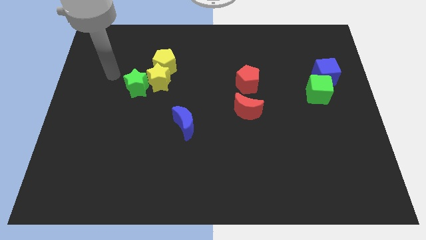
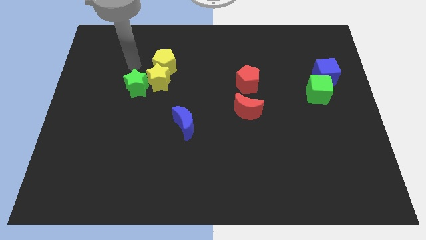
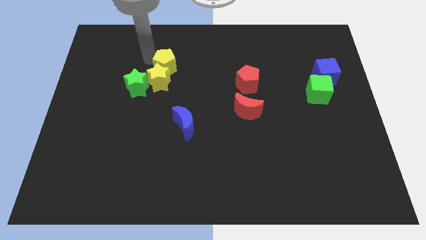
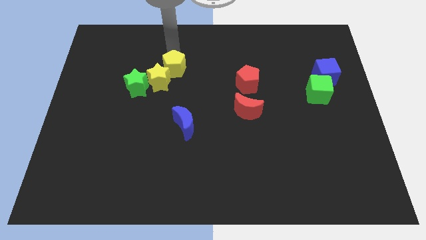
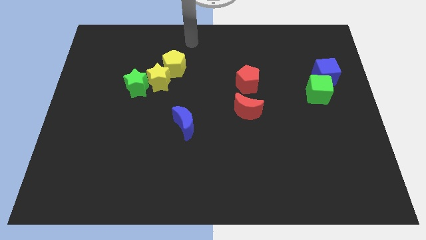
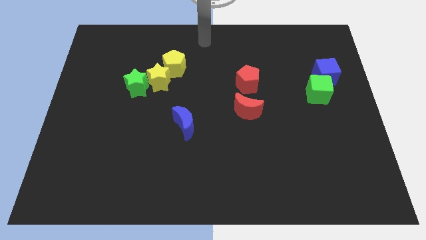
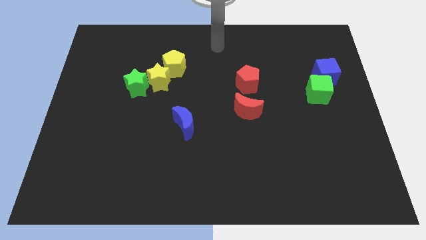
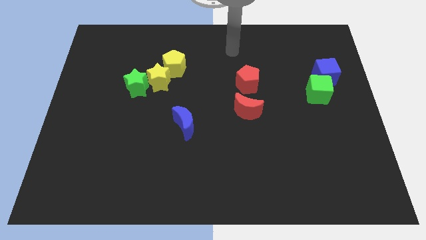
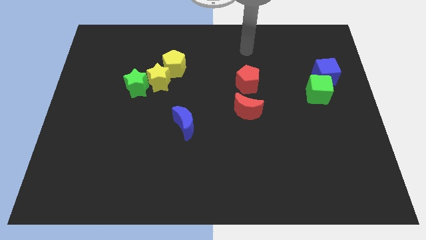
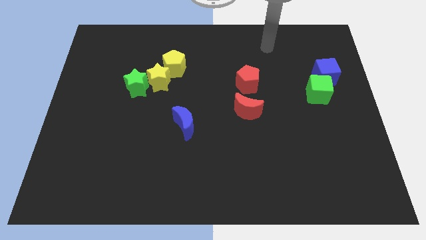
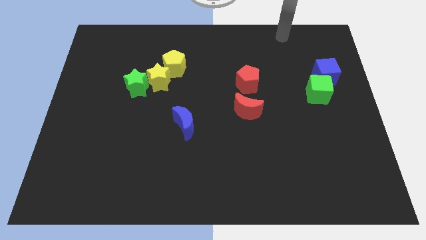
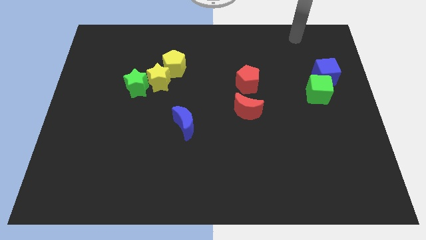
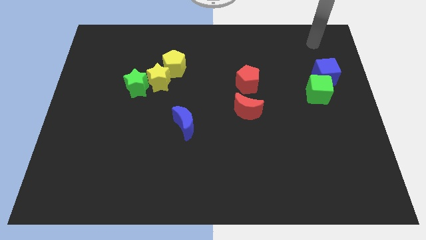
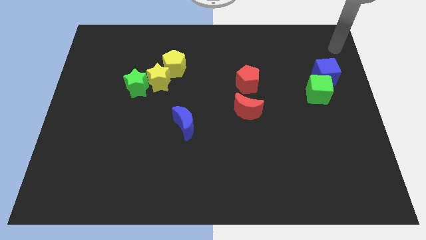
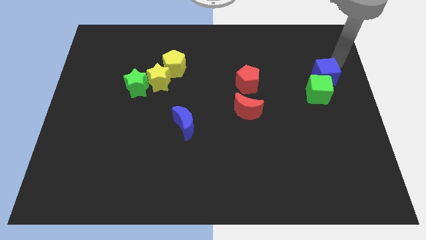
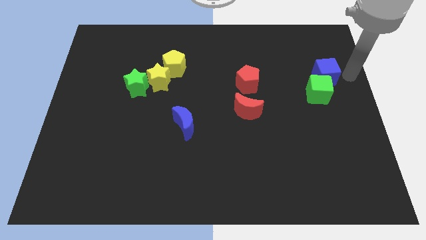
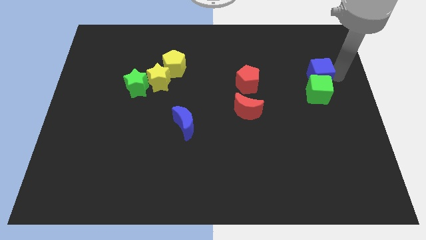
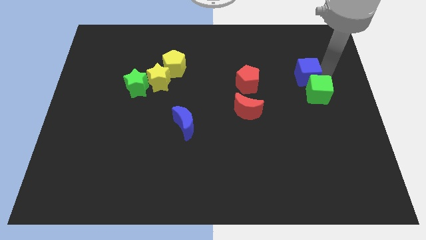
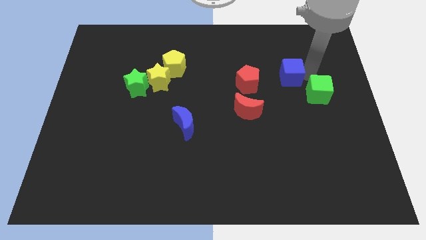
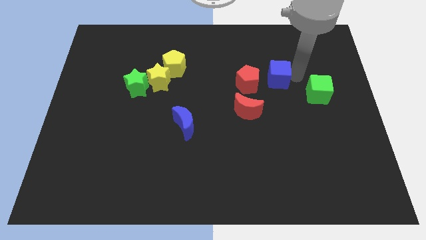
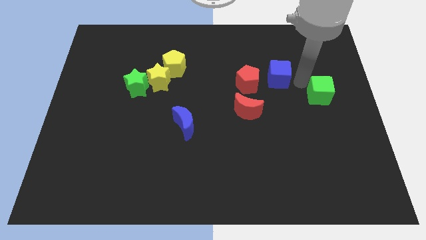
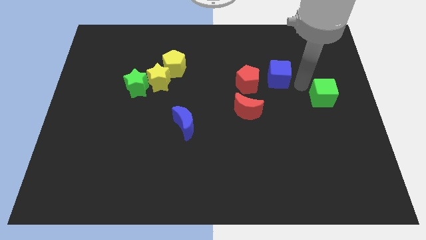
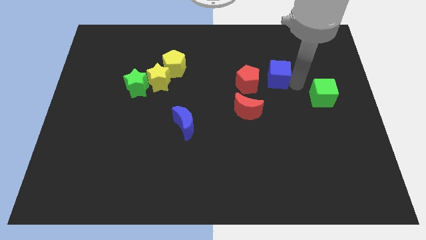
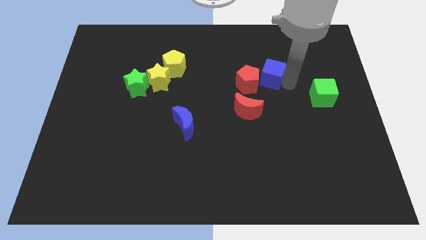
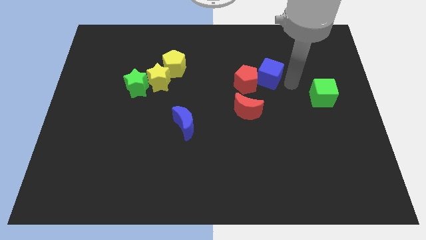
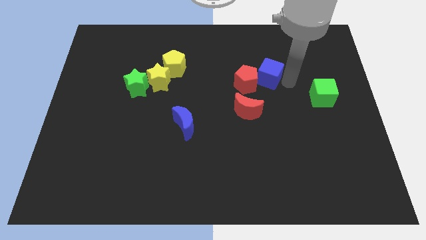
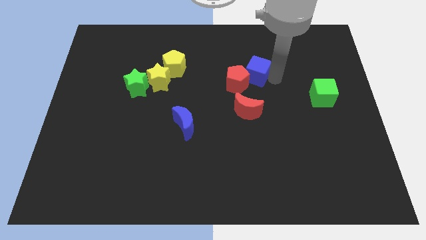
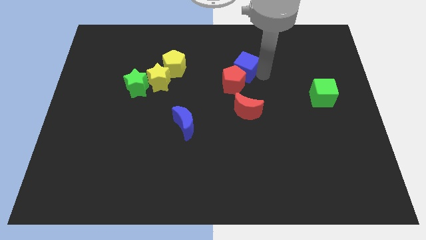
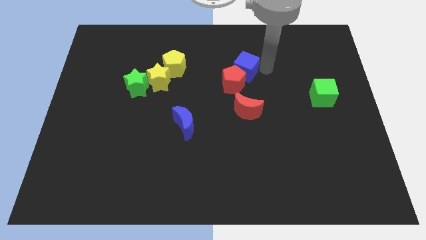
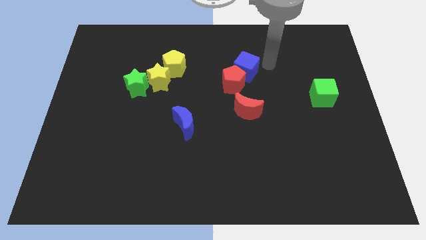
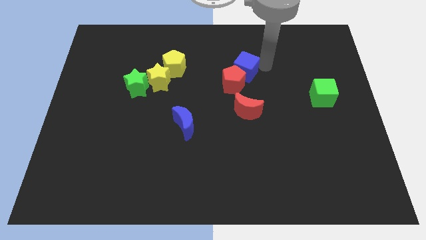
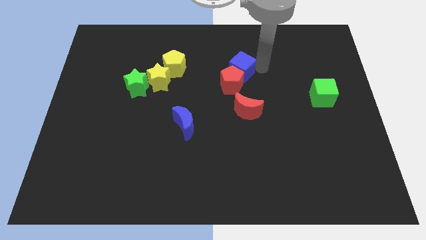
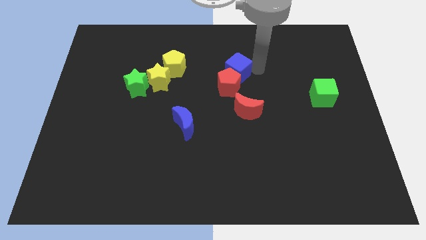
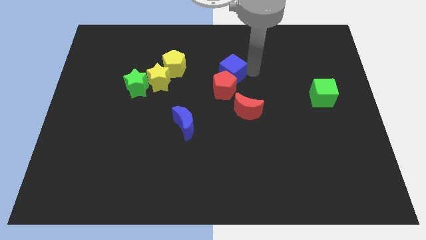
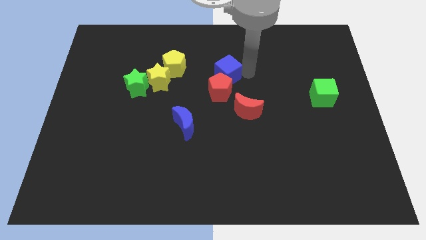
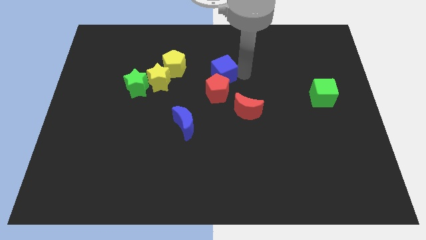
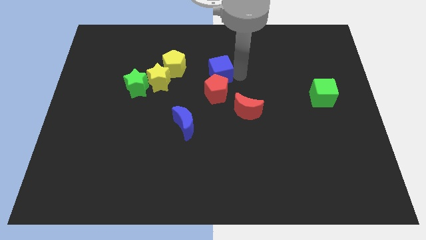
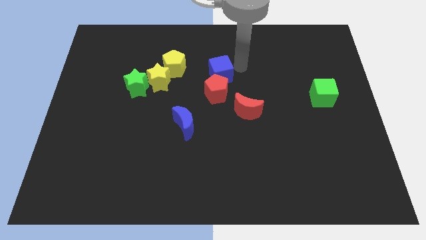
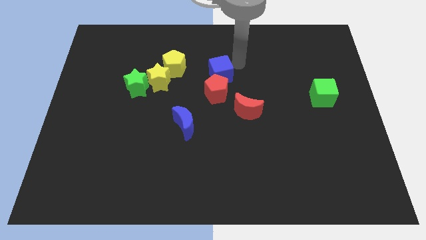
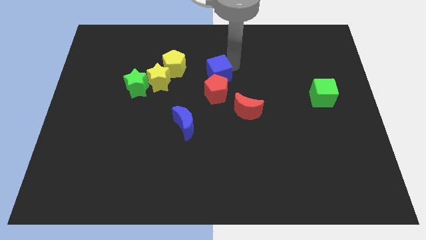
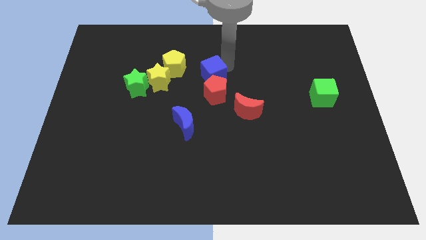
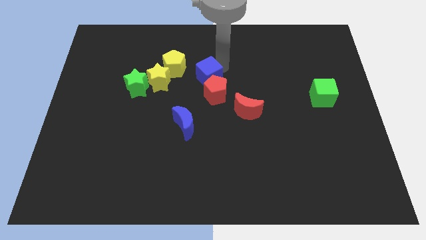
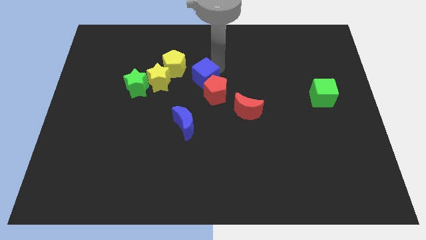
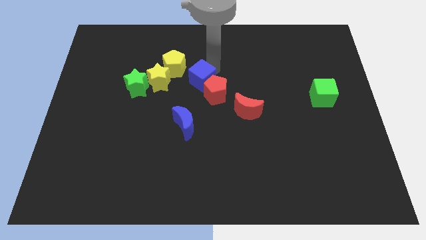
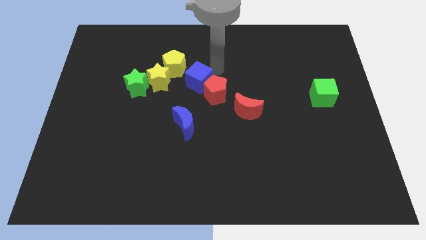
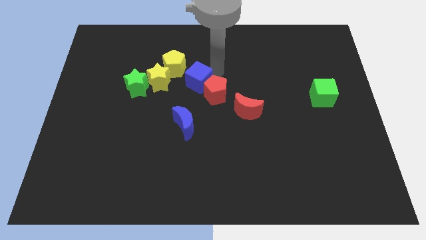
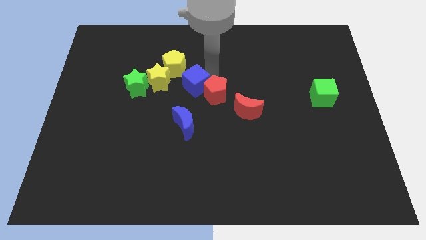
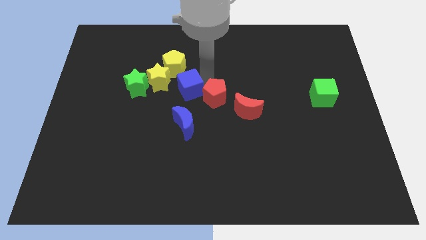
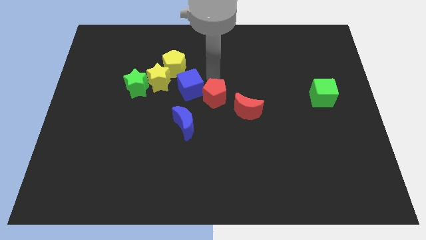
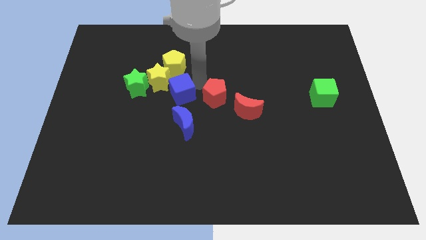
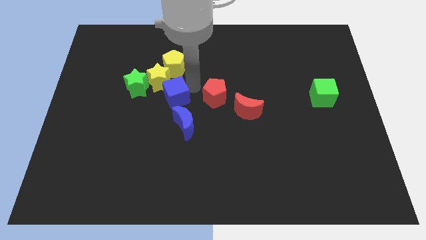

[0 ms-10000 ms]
slide the blue cube diagonally down and to the right of the green star

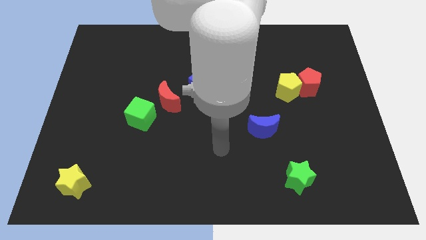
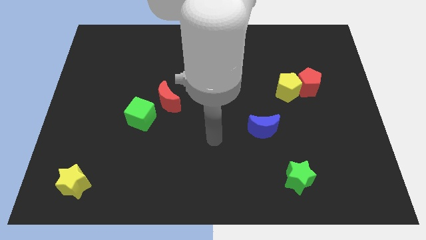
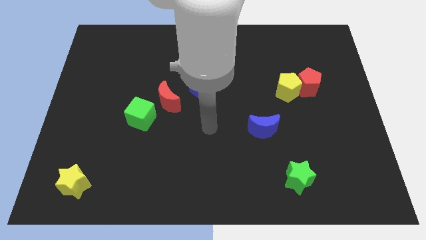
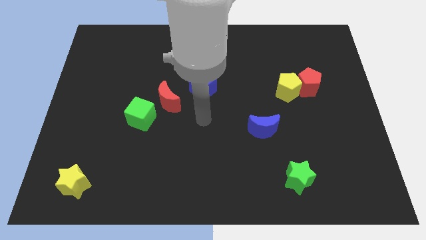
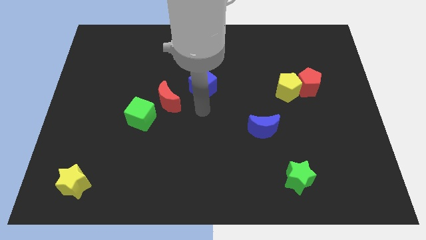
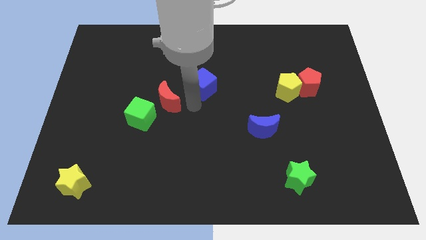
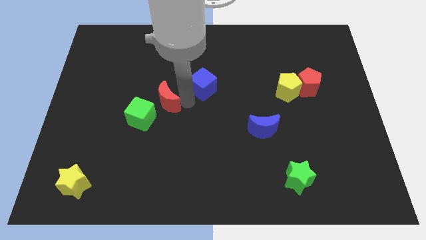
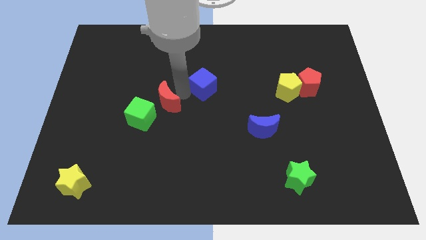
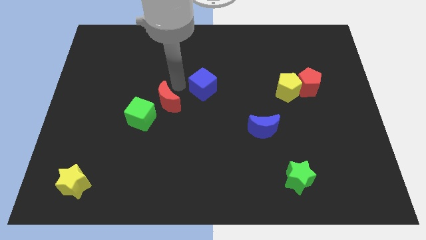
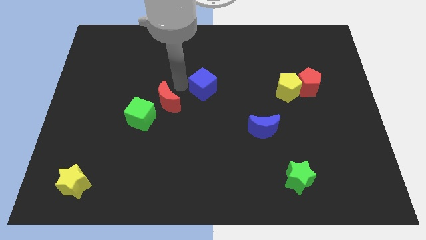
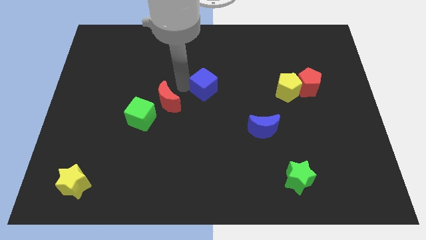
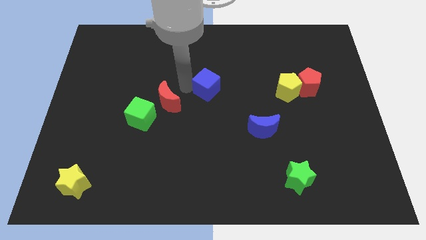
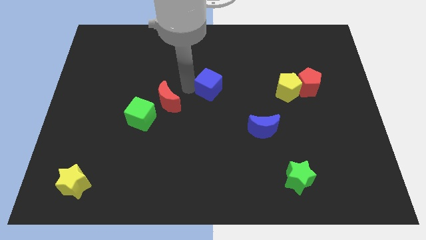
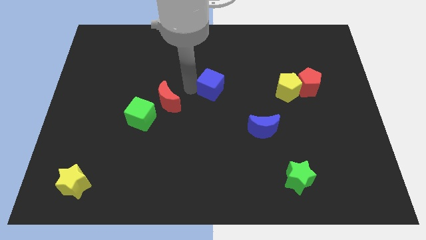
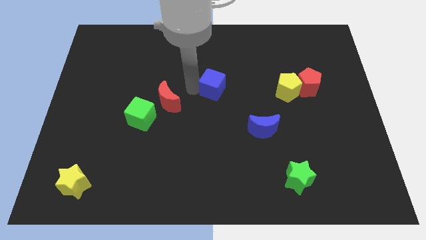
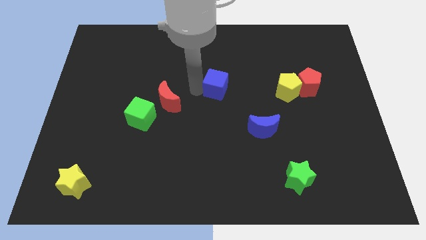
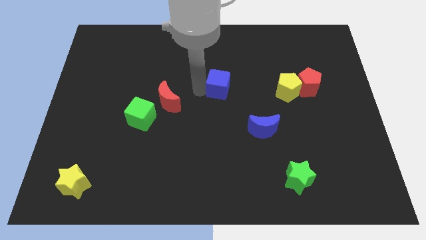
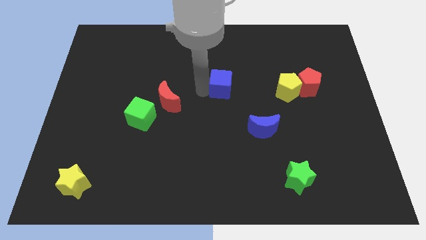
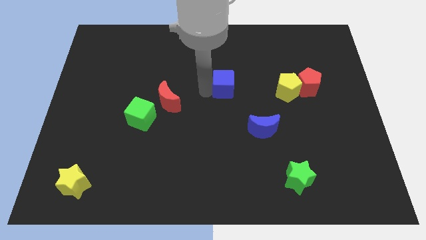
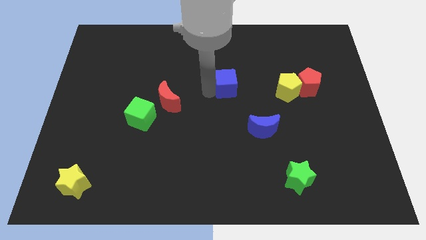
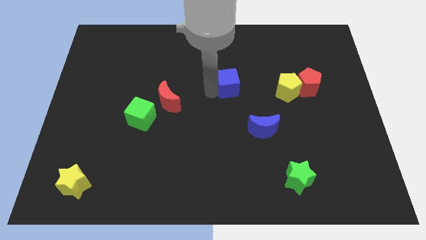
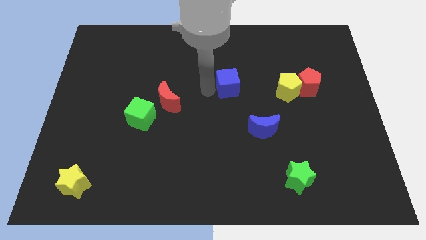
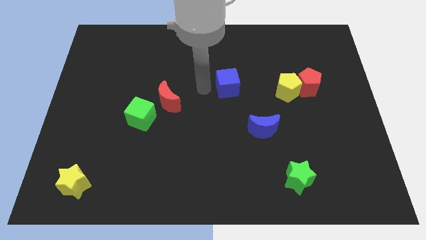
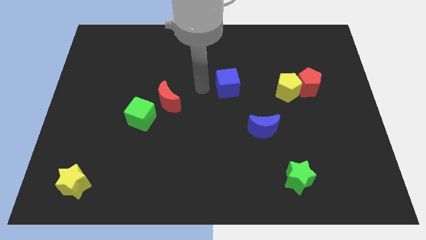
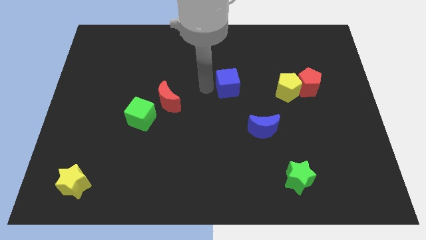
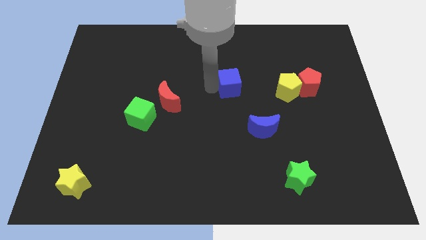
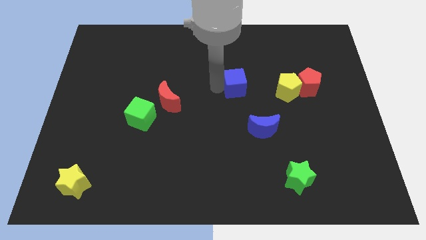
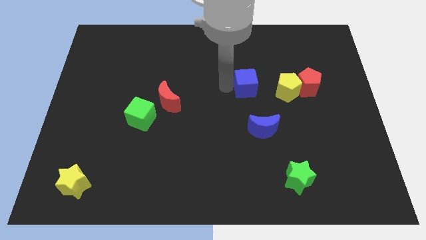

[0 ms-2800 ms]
push the blue cube left of the red pentagon
